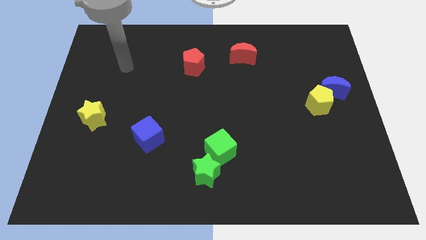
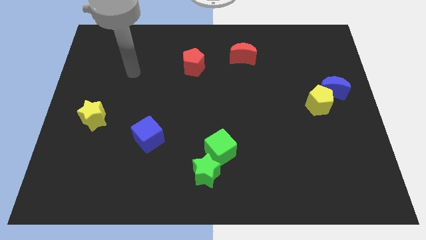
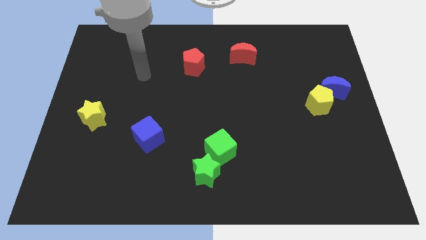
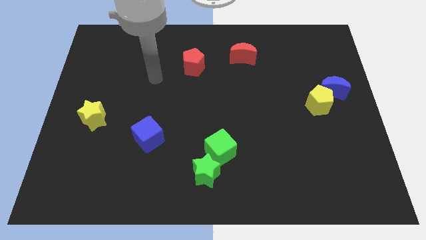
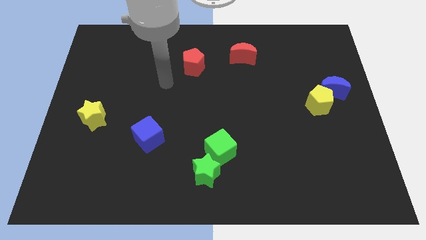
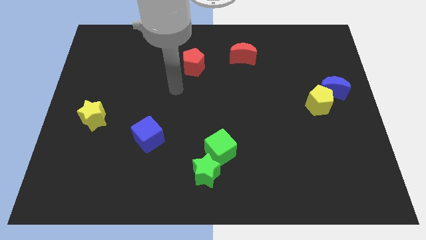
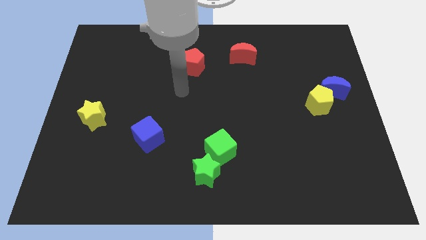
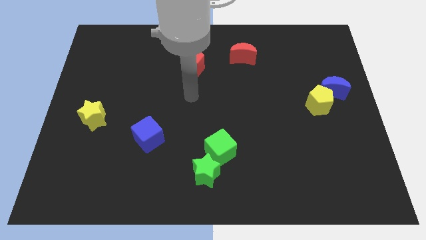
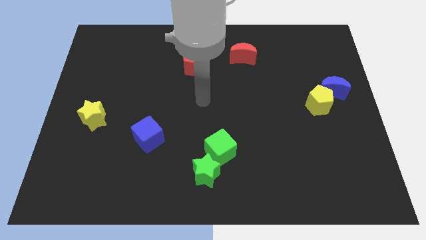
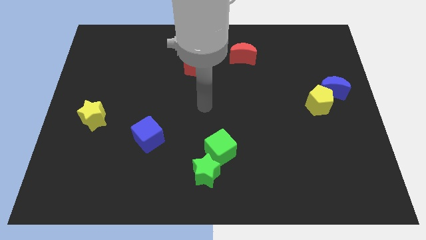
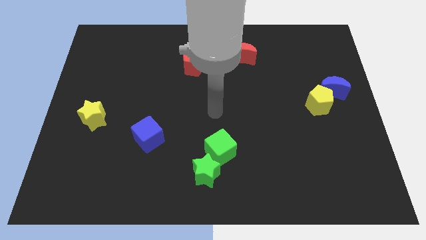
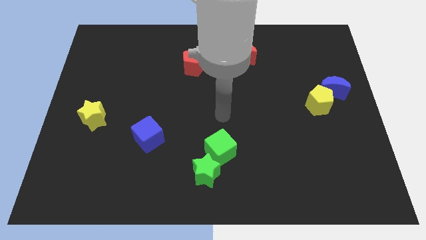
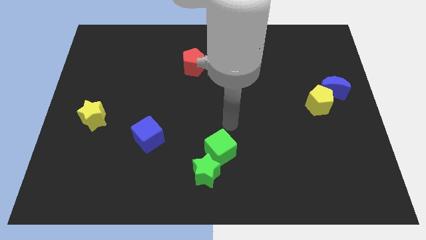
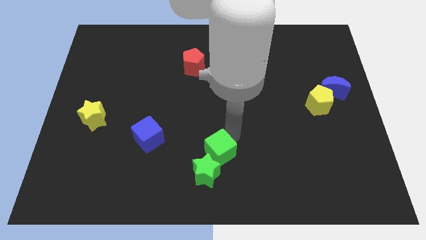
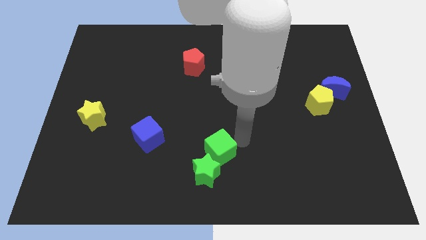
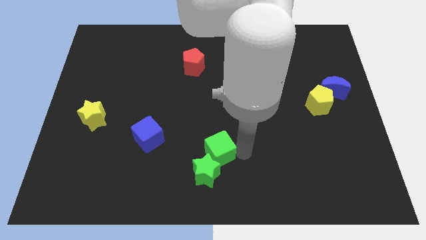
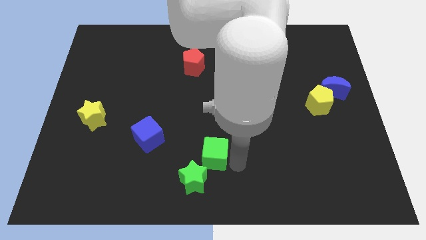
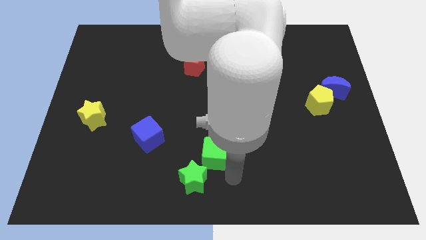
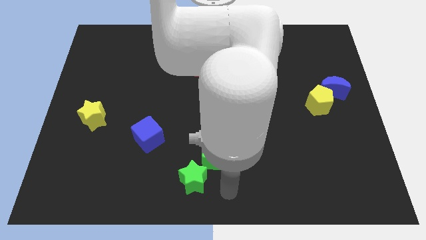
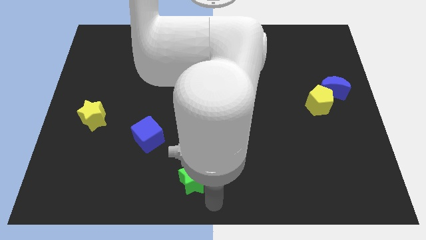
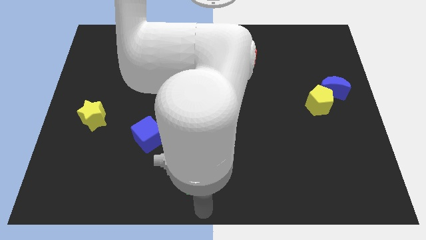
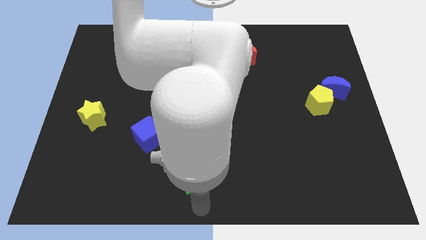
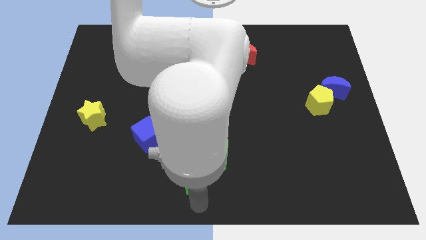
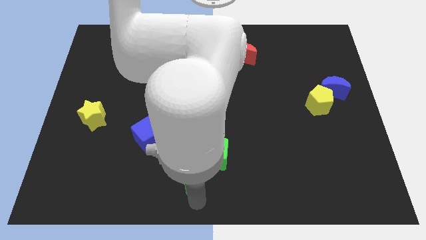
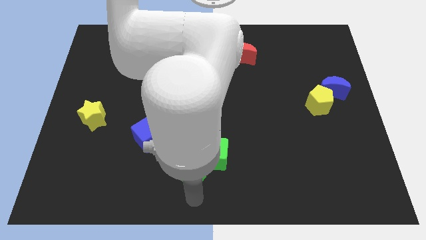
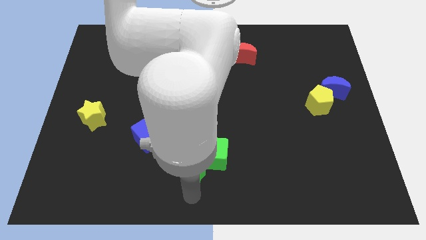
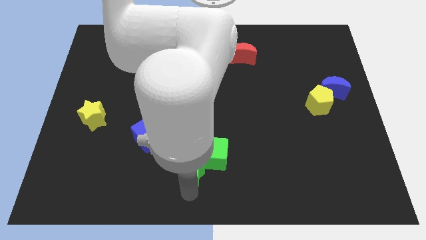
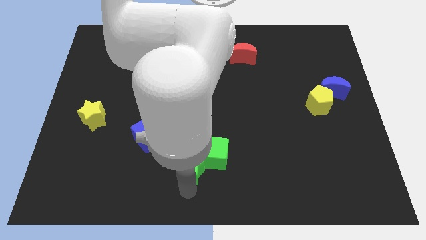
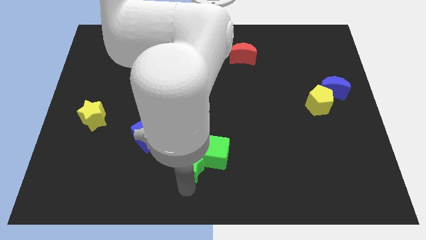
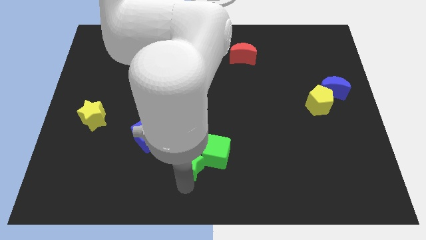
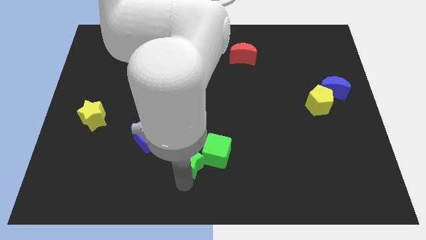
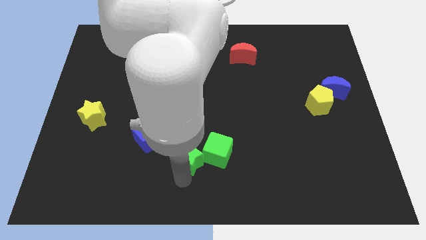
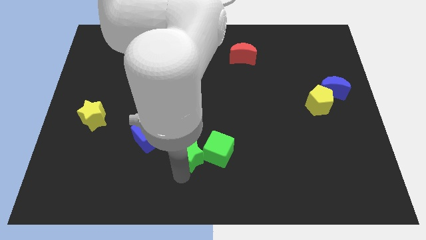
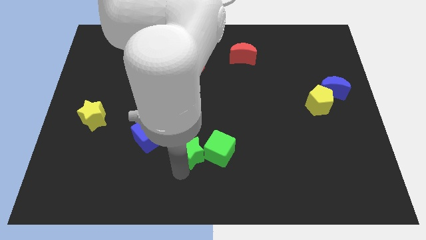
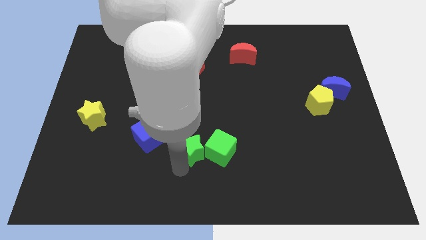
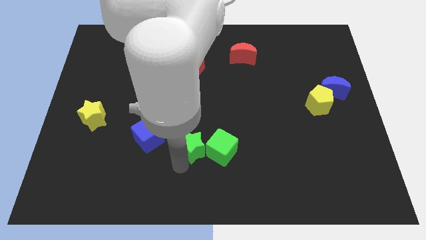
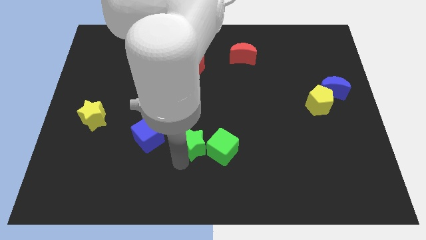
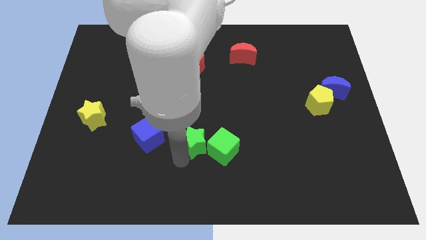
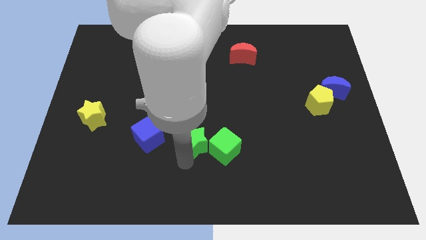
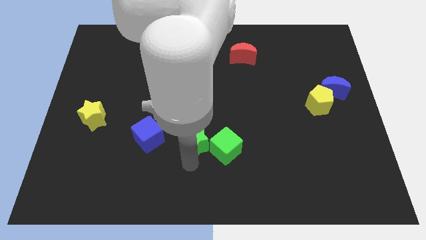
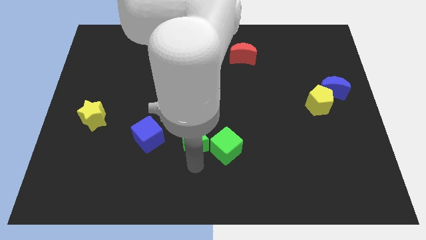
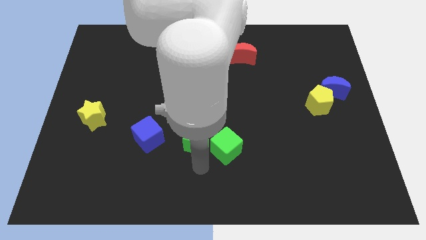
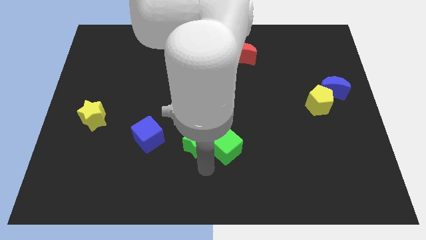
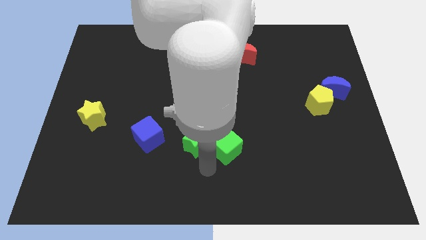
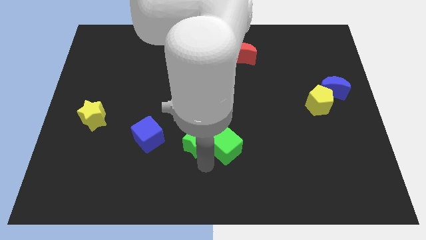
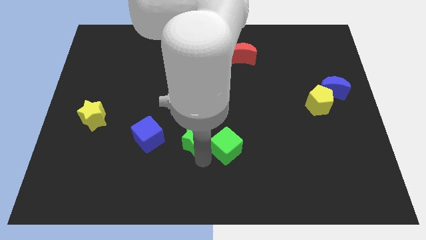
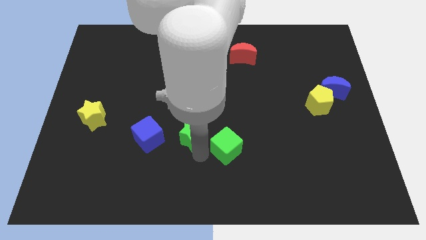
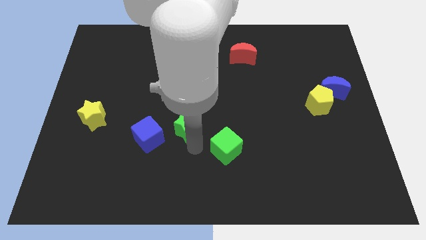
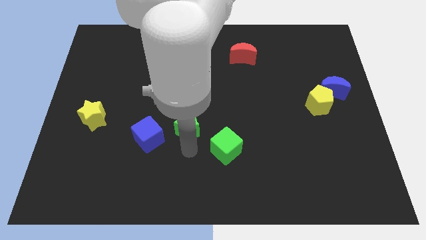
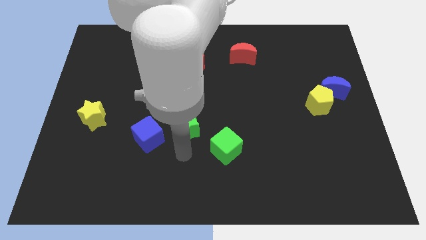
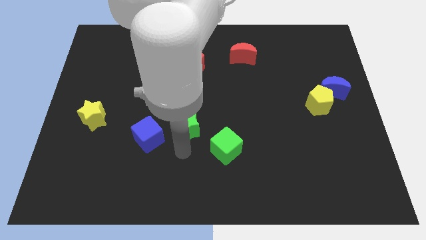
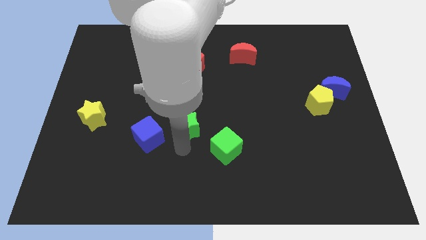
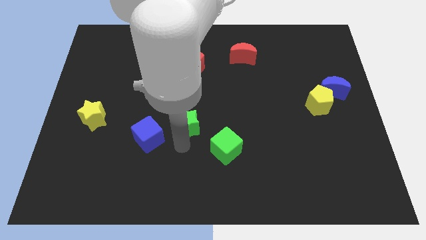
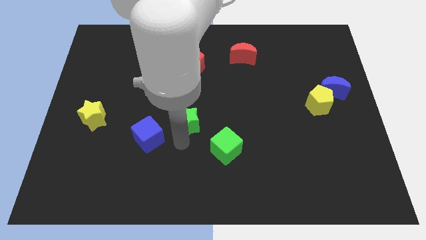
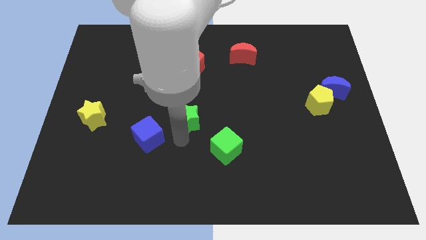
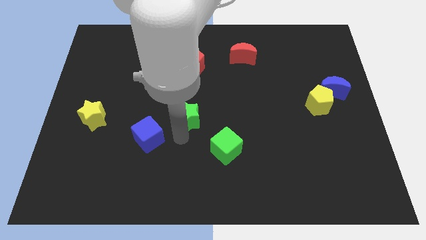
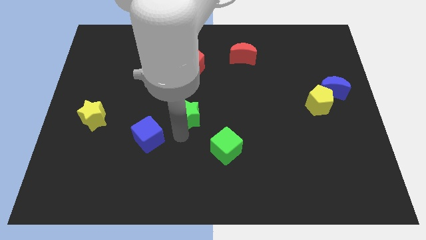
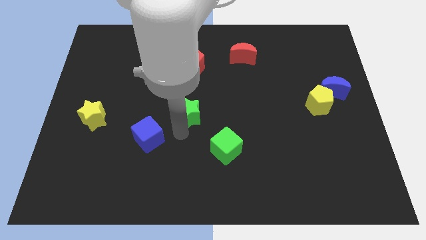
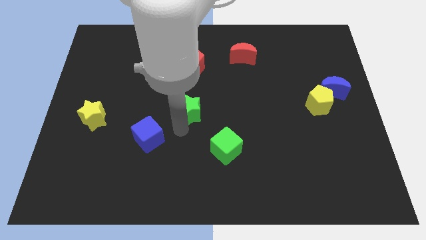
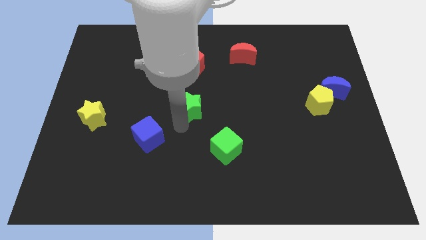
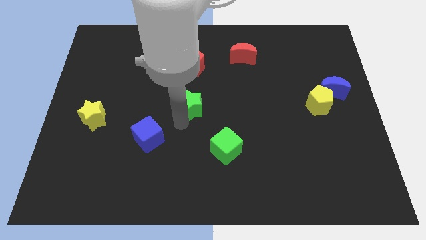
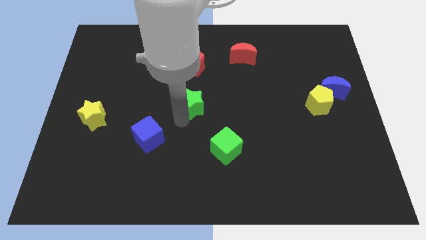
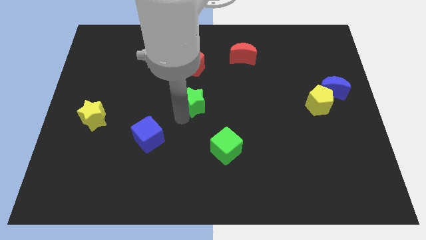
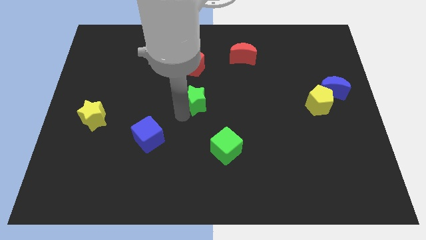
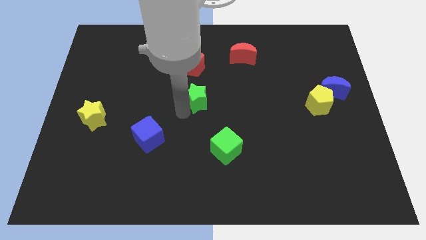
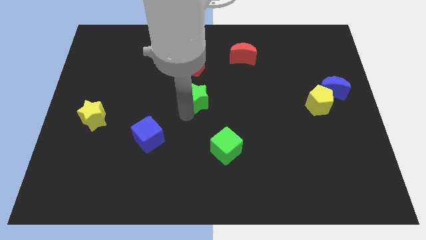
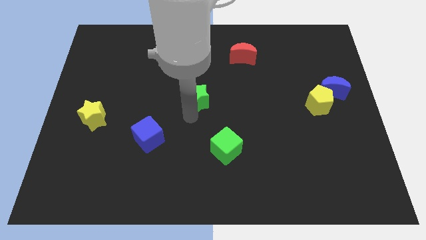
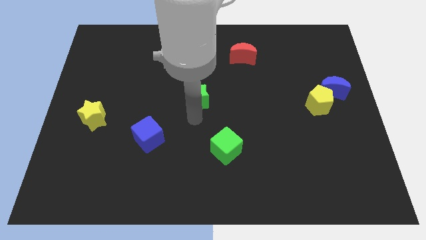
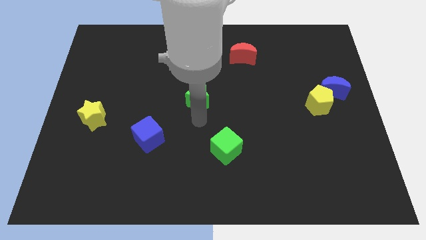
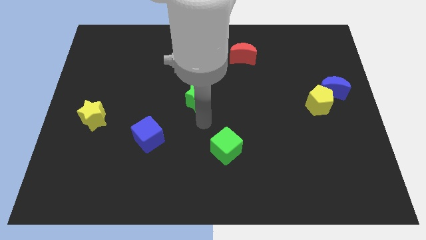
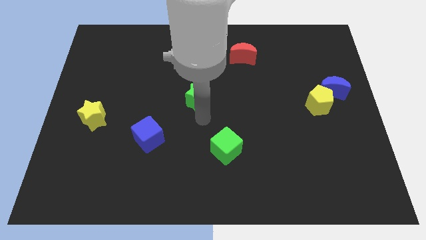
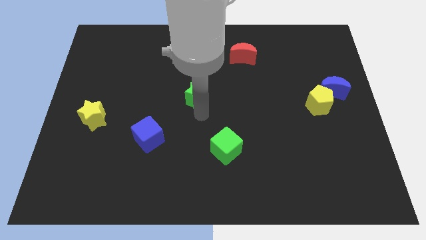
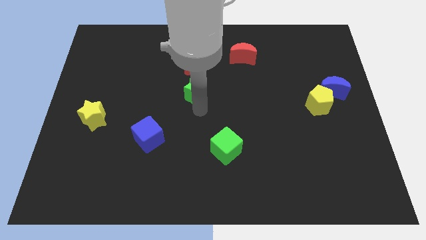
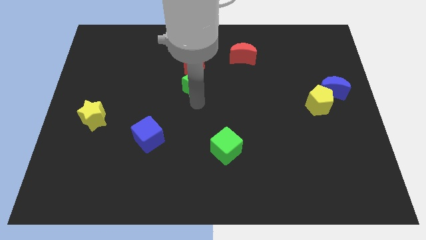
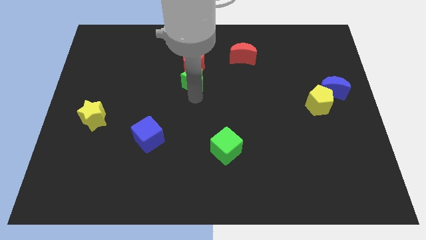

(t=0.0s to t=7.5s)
push the green star to the red pentagon

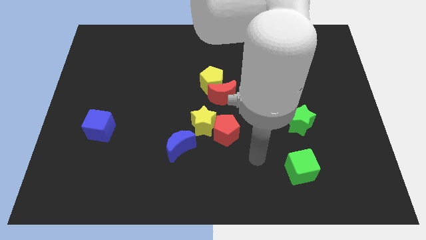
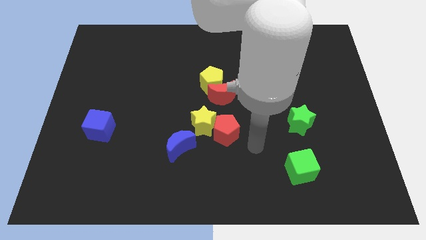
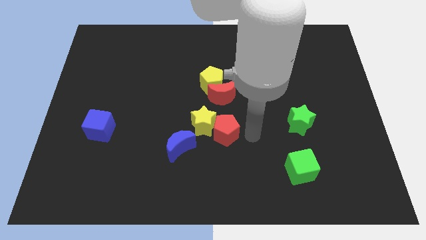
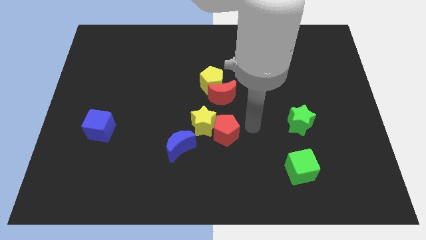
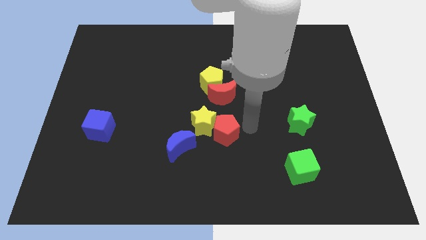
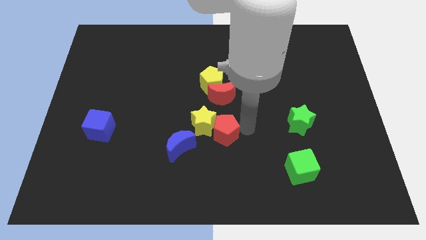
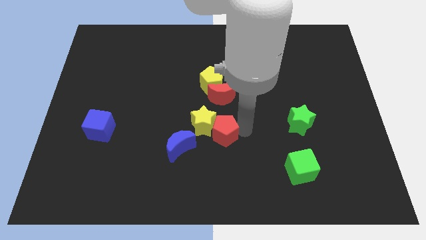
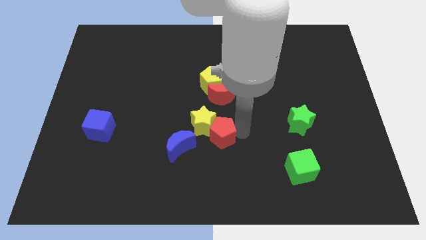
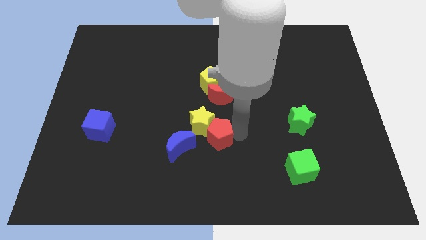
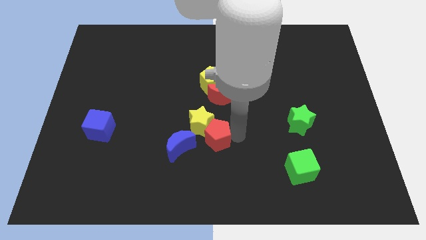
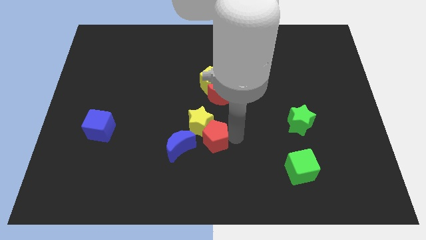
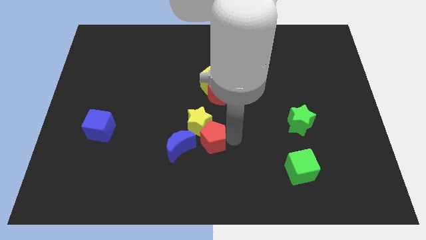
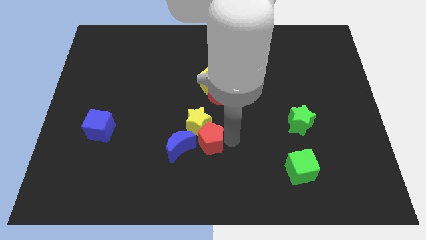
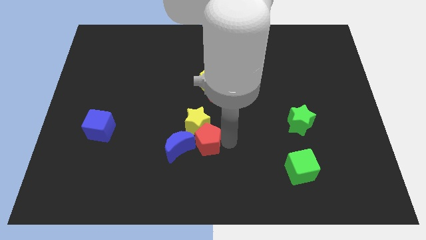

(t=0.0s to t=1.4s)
slide the red pentagon next to the blue moon
